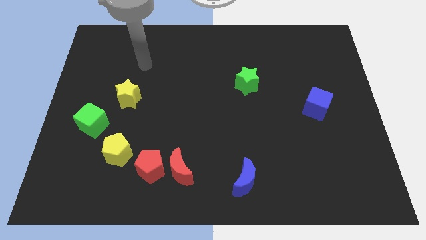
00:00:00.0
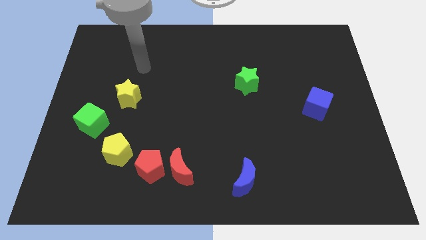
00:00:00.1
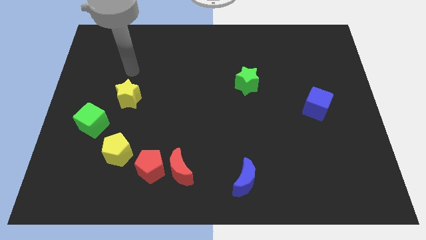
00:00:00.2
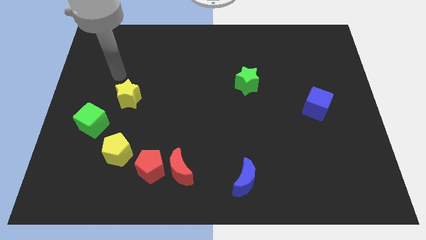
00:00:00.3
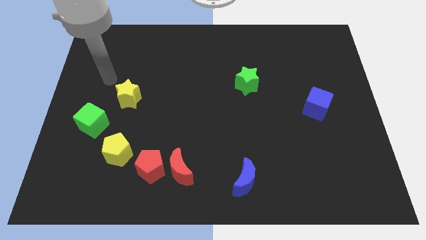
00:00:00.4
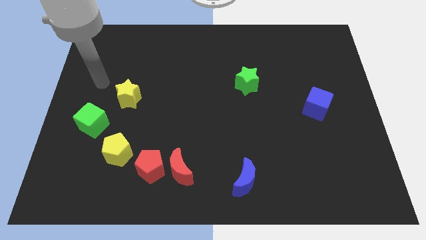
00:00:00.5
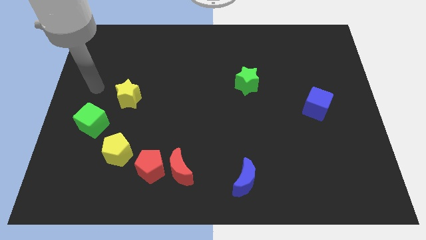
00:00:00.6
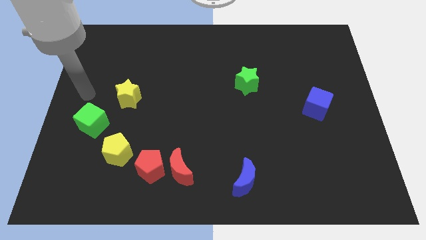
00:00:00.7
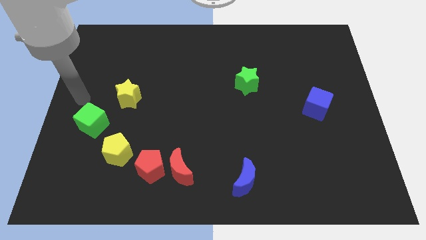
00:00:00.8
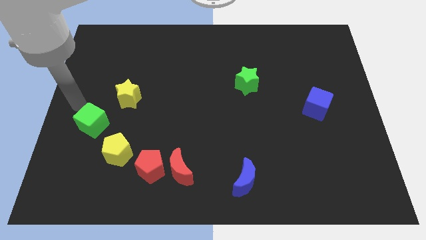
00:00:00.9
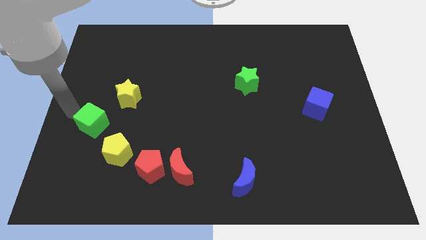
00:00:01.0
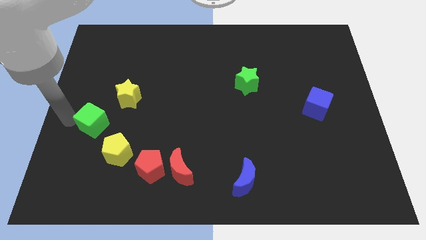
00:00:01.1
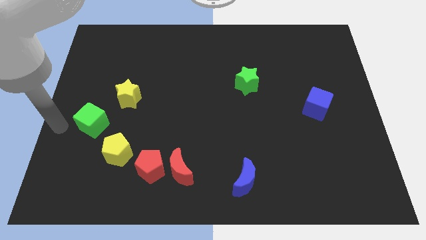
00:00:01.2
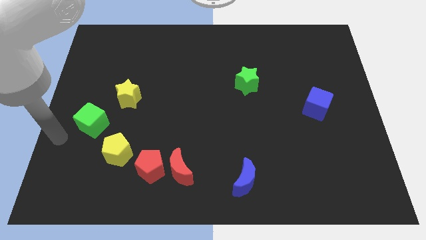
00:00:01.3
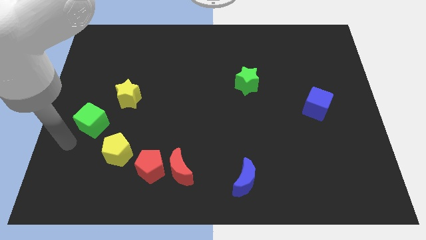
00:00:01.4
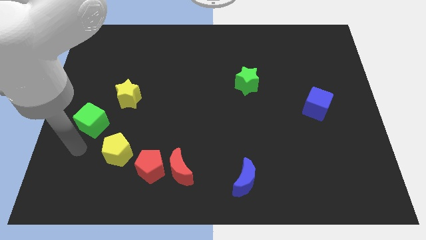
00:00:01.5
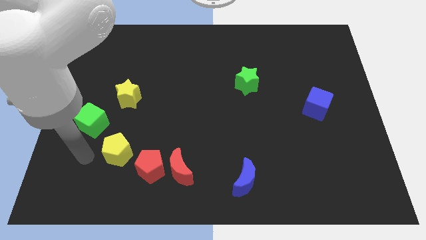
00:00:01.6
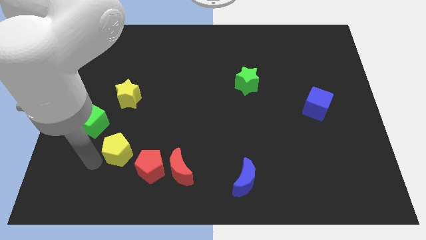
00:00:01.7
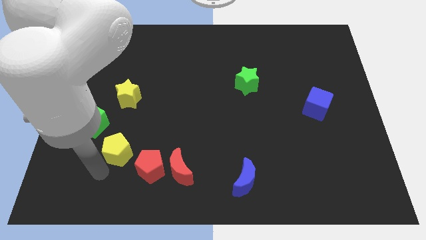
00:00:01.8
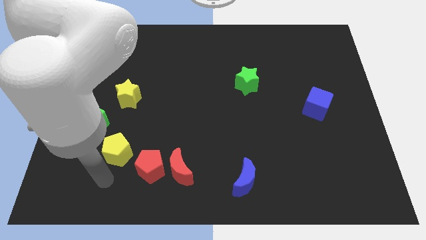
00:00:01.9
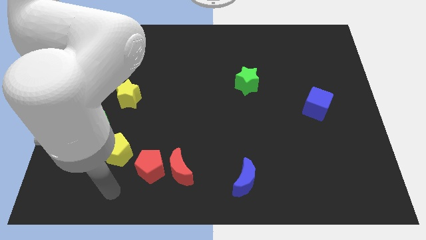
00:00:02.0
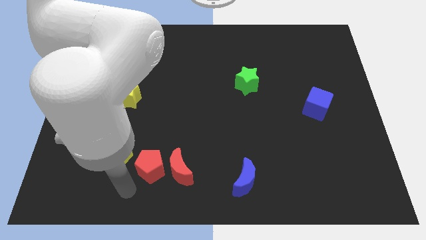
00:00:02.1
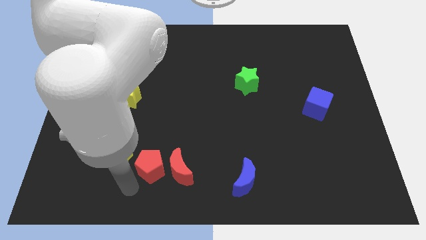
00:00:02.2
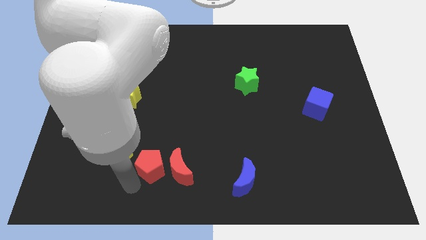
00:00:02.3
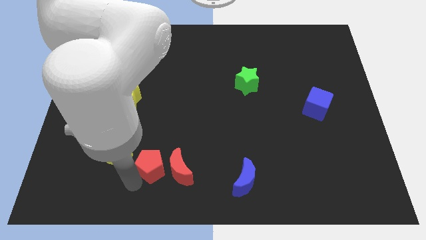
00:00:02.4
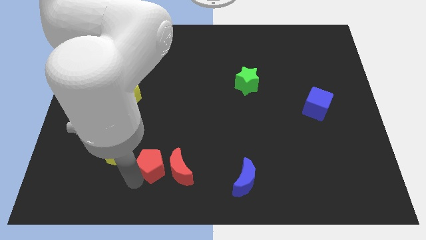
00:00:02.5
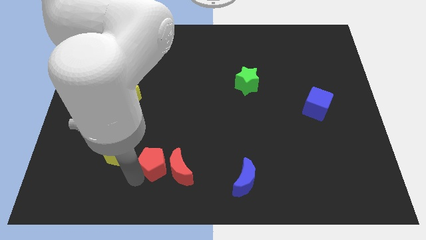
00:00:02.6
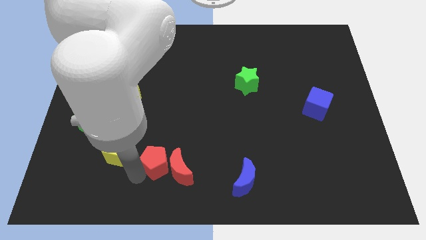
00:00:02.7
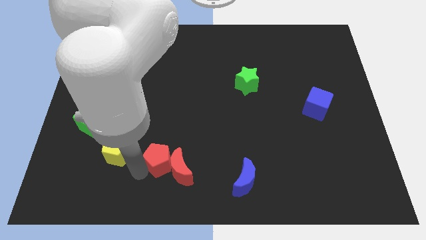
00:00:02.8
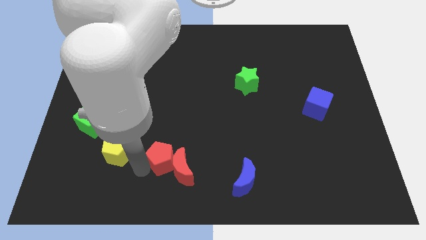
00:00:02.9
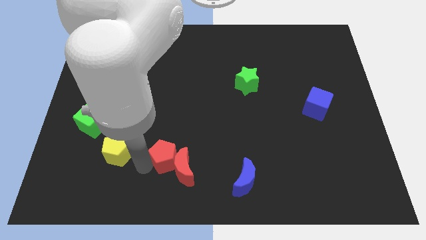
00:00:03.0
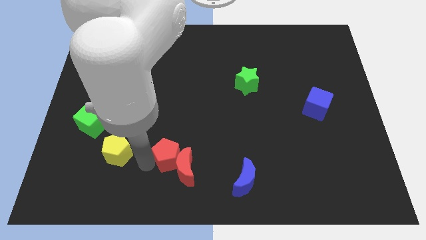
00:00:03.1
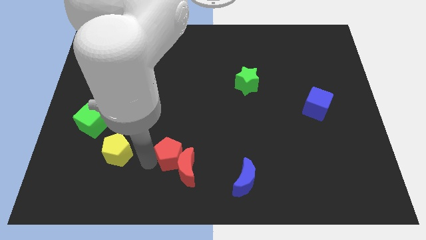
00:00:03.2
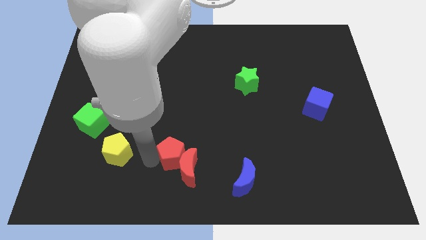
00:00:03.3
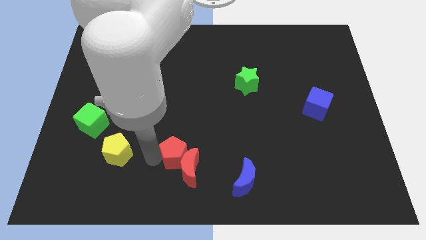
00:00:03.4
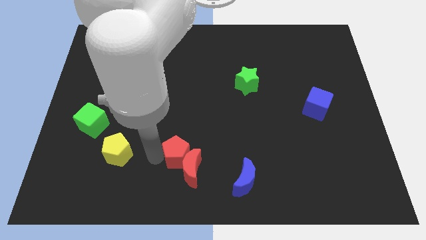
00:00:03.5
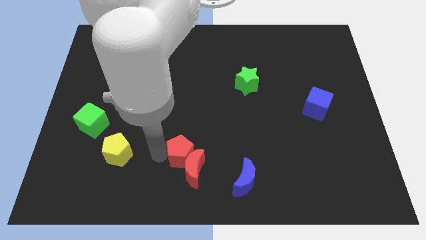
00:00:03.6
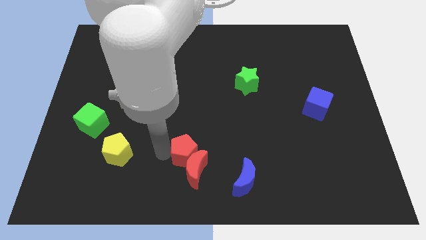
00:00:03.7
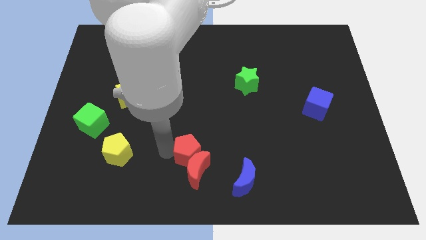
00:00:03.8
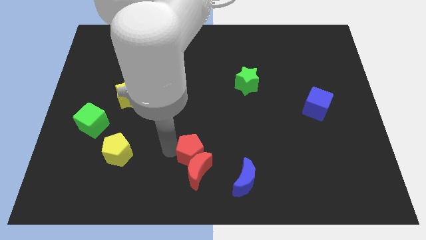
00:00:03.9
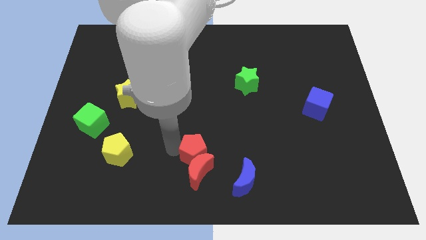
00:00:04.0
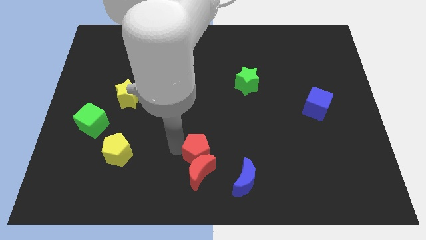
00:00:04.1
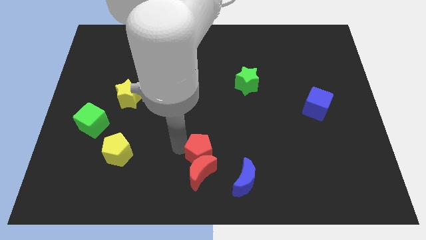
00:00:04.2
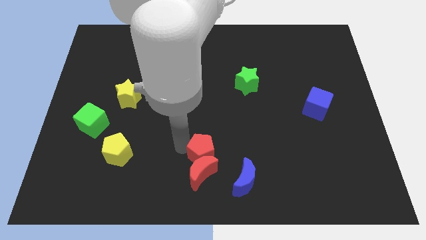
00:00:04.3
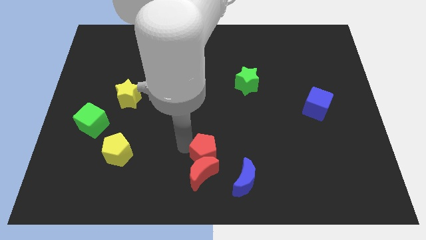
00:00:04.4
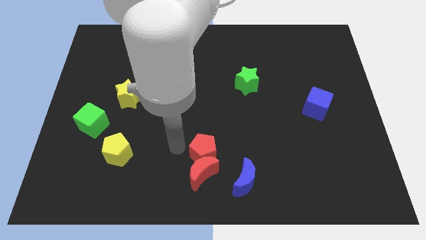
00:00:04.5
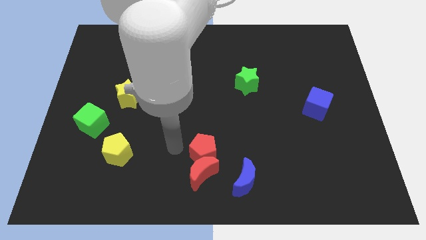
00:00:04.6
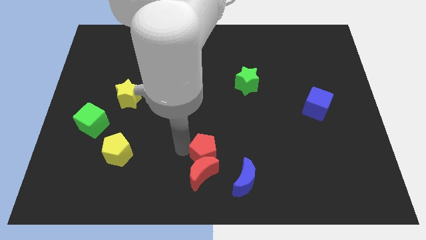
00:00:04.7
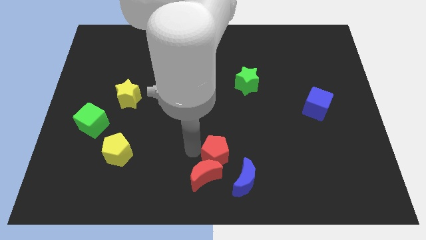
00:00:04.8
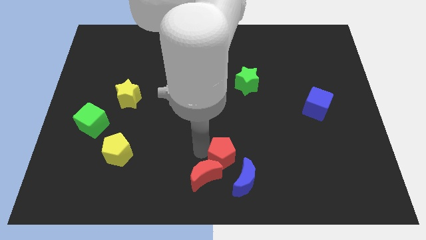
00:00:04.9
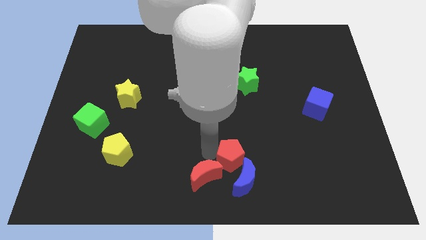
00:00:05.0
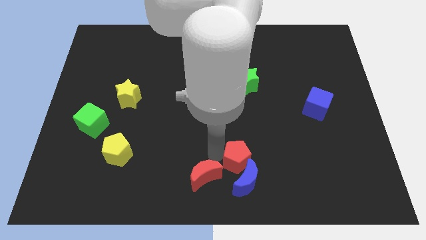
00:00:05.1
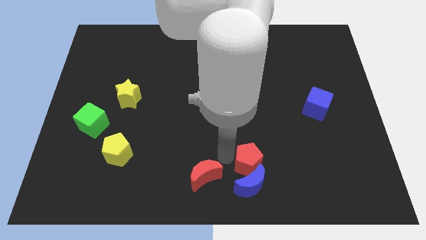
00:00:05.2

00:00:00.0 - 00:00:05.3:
move the red pentagon to the right

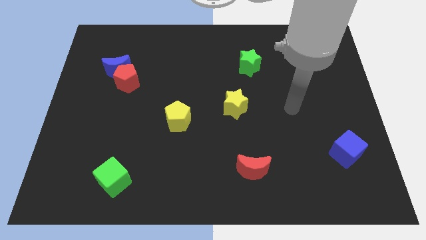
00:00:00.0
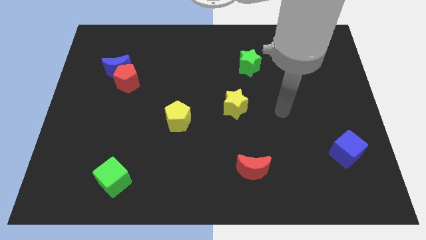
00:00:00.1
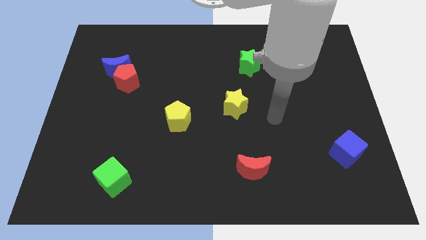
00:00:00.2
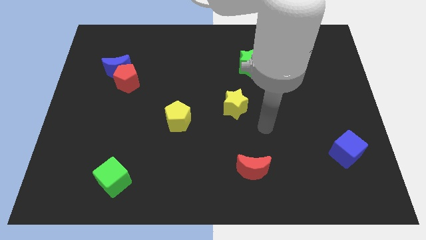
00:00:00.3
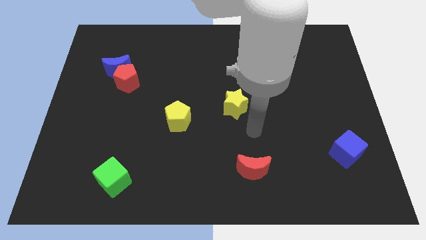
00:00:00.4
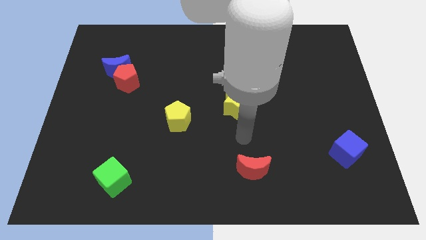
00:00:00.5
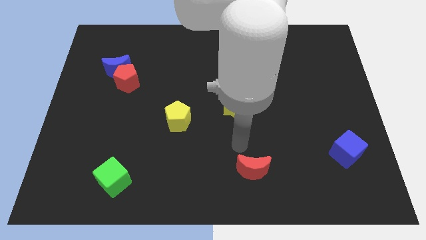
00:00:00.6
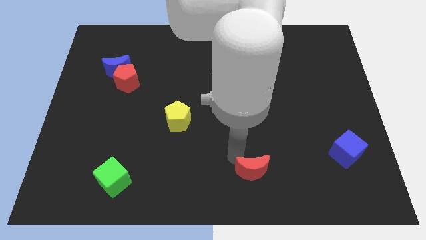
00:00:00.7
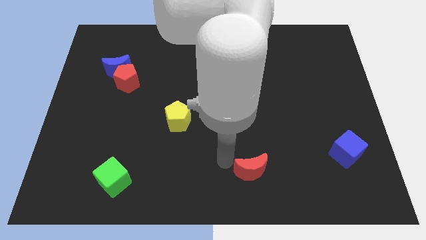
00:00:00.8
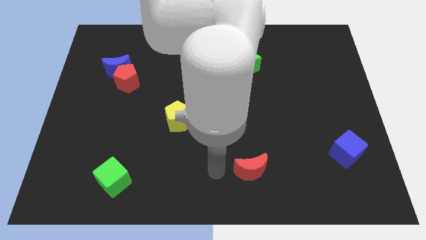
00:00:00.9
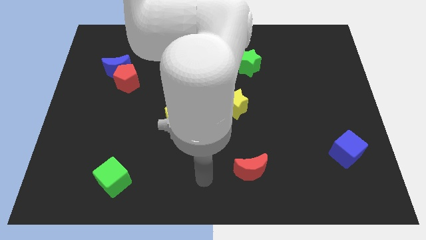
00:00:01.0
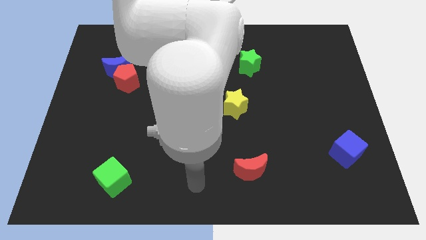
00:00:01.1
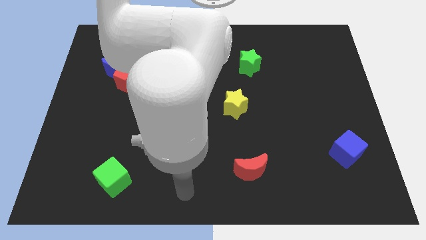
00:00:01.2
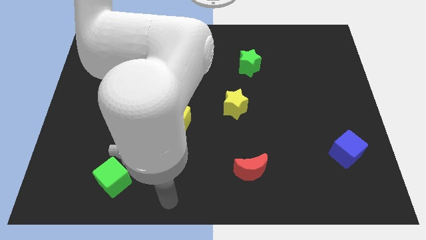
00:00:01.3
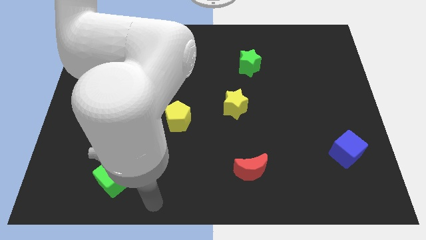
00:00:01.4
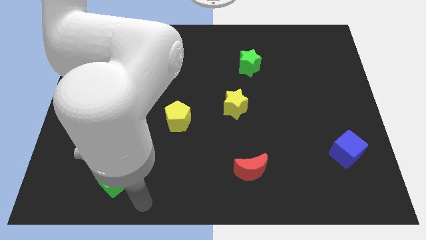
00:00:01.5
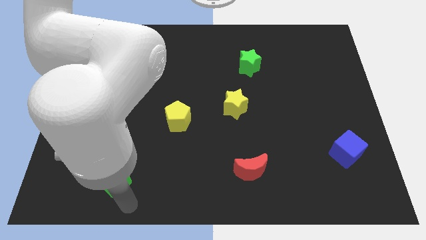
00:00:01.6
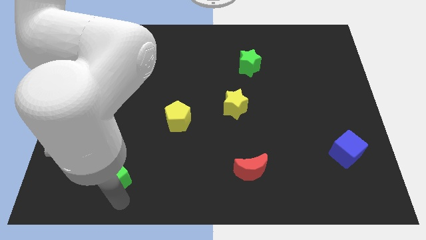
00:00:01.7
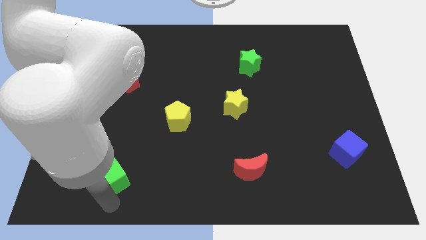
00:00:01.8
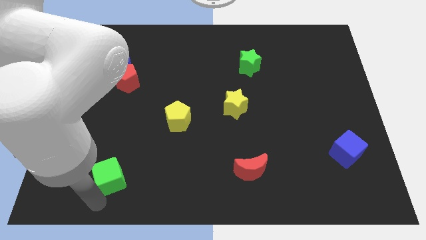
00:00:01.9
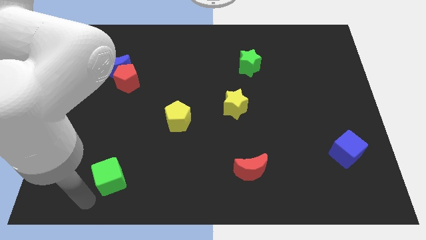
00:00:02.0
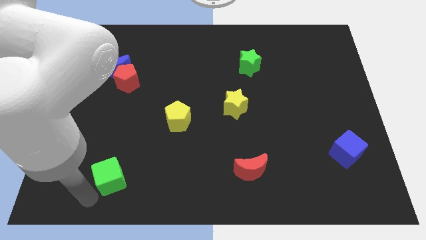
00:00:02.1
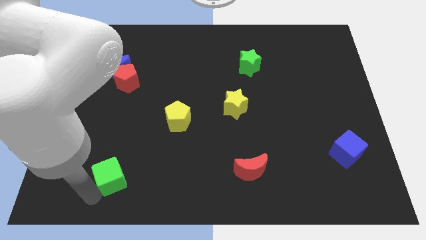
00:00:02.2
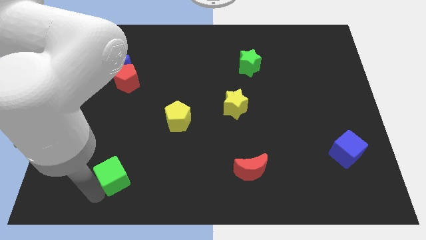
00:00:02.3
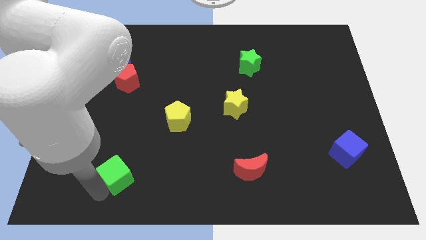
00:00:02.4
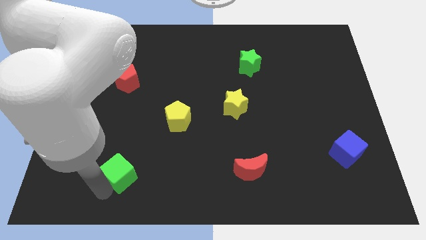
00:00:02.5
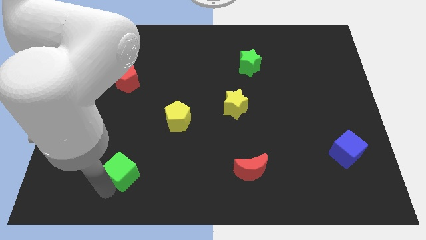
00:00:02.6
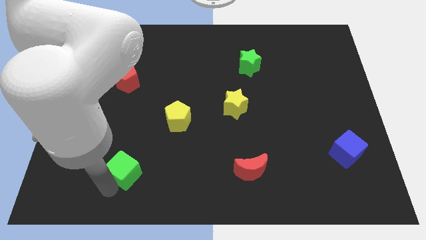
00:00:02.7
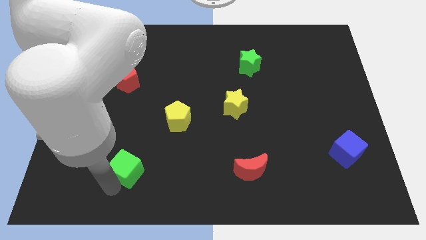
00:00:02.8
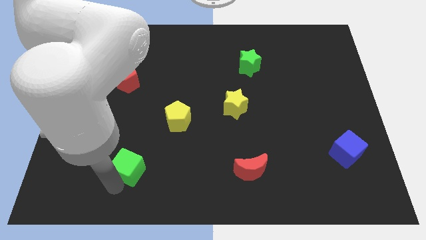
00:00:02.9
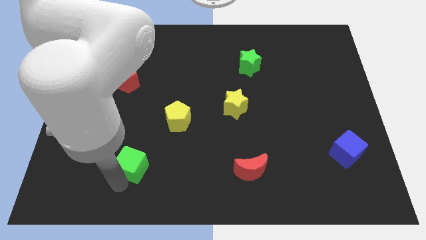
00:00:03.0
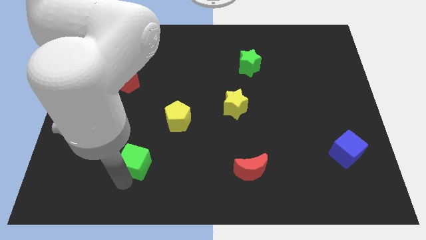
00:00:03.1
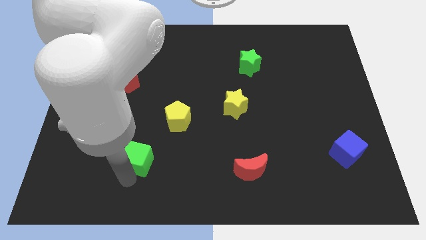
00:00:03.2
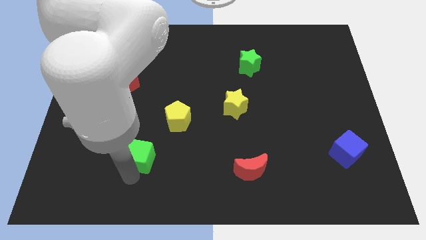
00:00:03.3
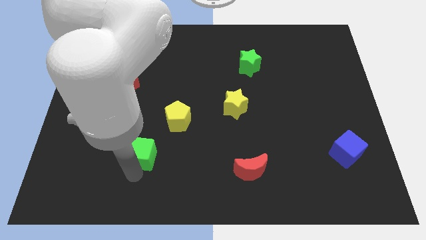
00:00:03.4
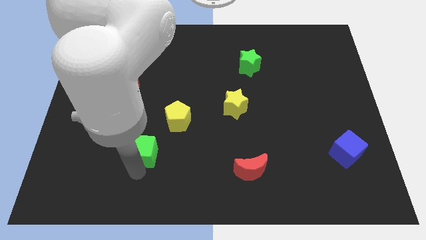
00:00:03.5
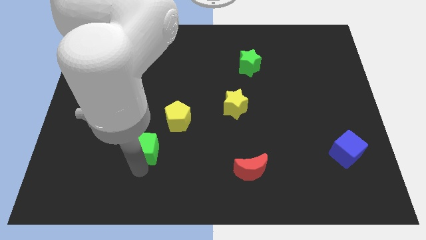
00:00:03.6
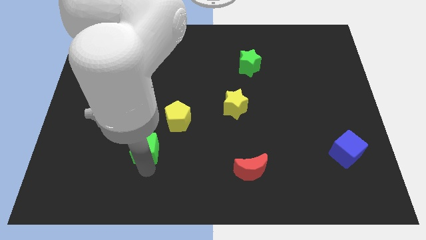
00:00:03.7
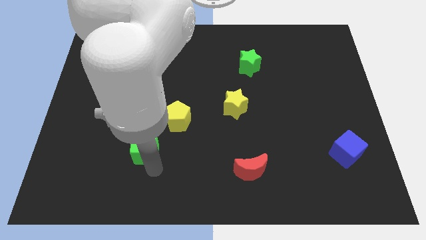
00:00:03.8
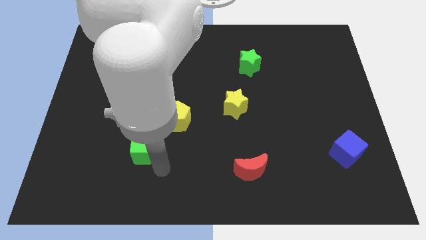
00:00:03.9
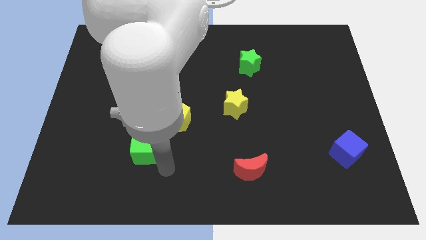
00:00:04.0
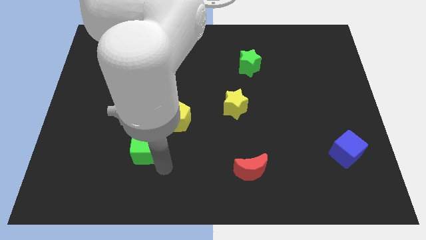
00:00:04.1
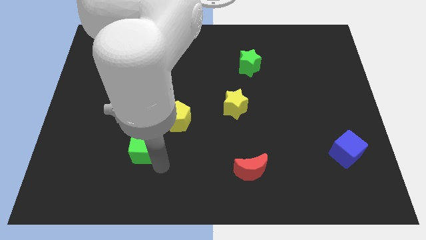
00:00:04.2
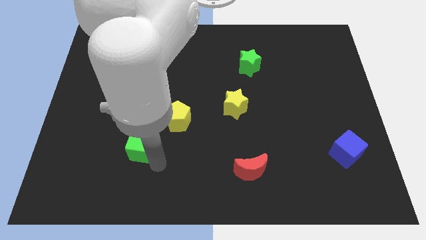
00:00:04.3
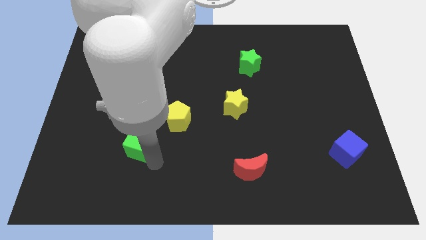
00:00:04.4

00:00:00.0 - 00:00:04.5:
push the green cube a little bit upwards
